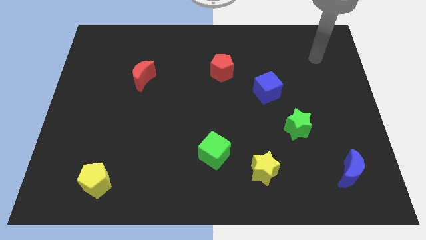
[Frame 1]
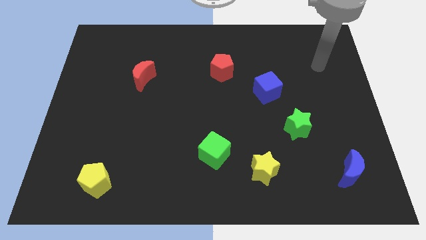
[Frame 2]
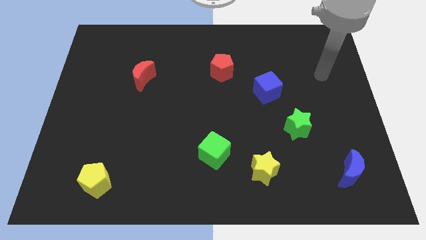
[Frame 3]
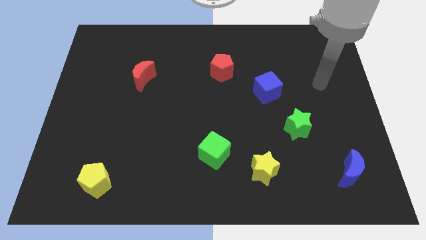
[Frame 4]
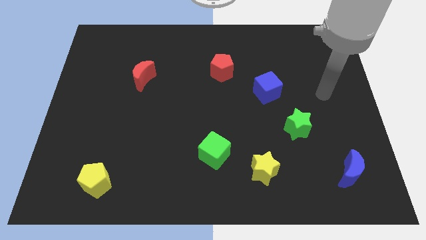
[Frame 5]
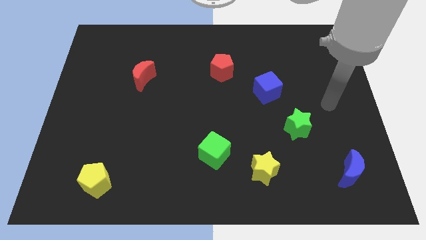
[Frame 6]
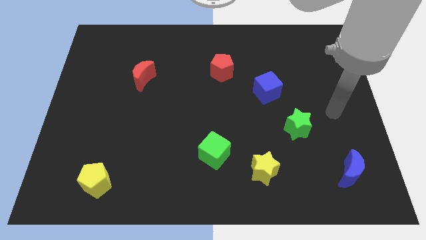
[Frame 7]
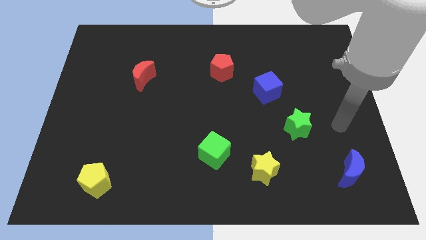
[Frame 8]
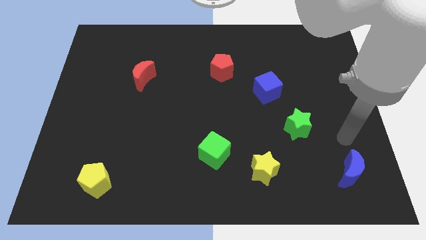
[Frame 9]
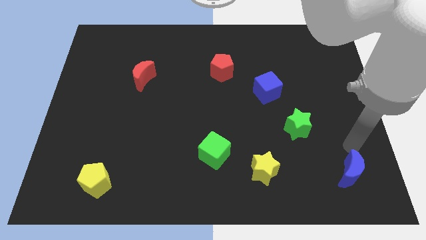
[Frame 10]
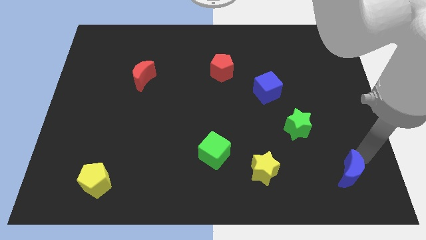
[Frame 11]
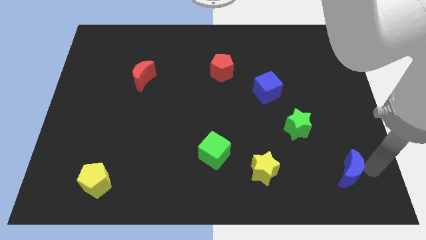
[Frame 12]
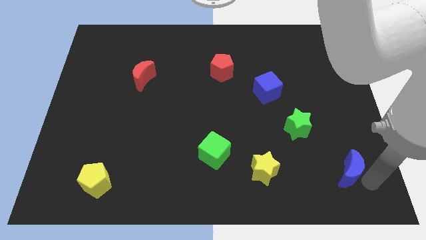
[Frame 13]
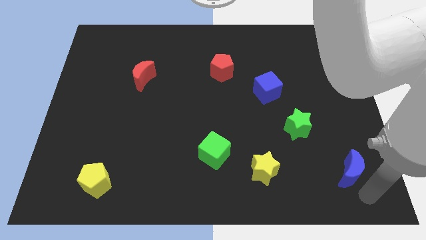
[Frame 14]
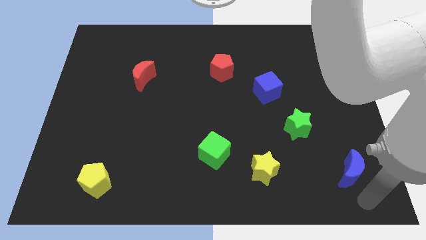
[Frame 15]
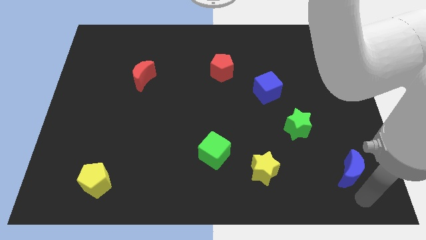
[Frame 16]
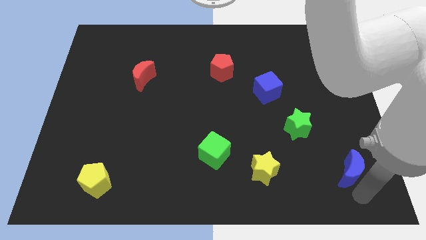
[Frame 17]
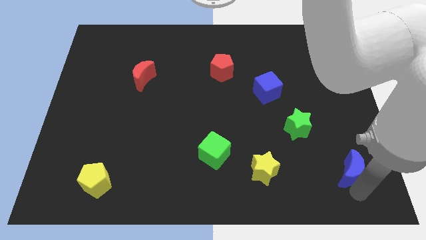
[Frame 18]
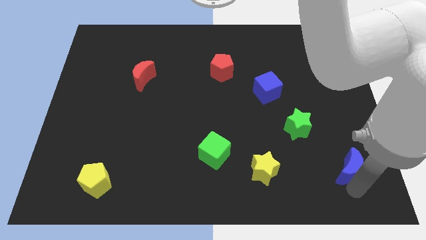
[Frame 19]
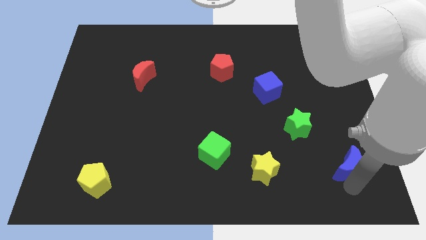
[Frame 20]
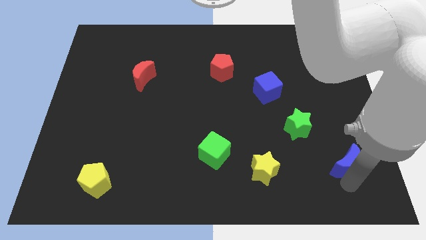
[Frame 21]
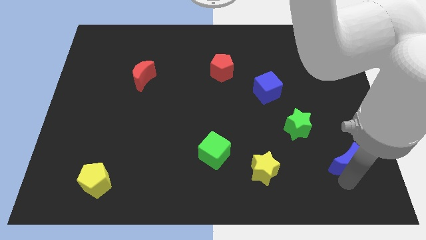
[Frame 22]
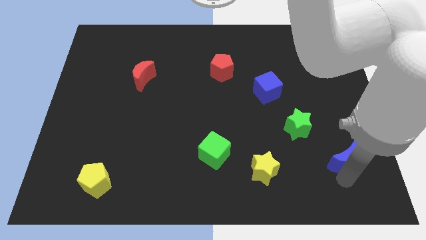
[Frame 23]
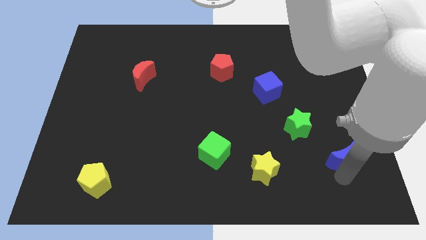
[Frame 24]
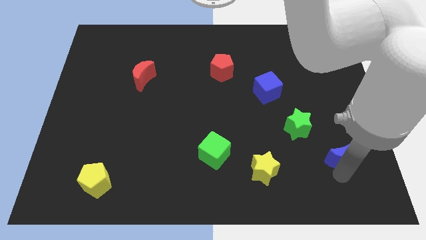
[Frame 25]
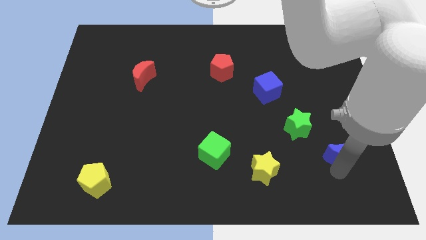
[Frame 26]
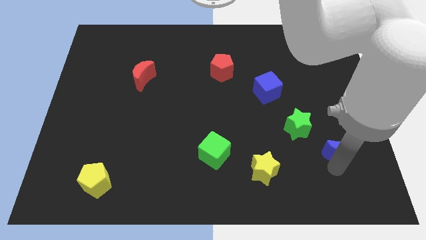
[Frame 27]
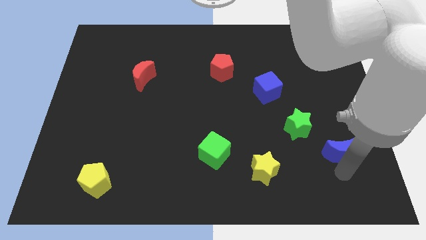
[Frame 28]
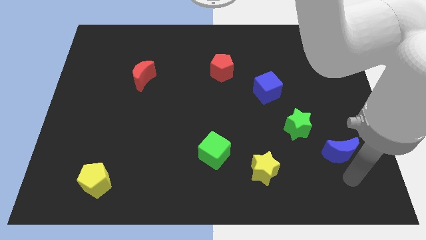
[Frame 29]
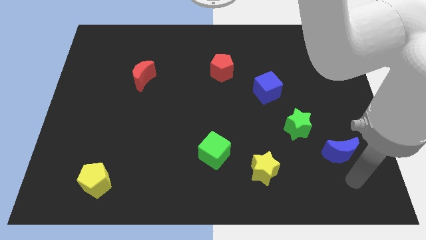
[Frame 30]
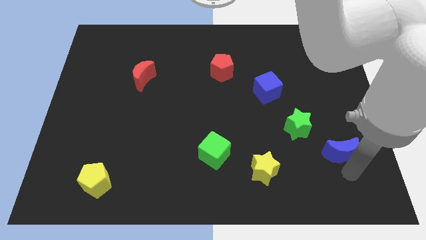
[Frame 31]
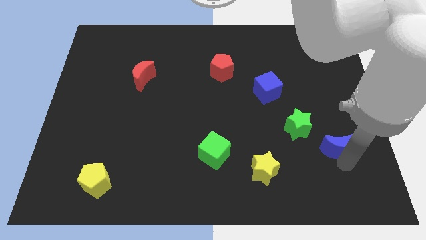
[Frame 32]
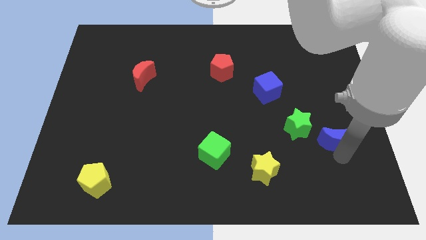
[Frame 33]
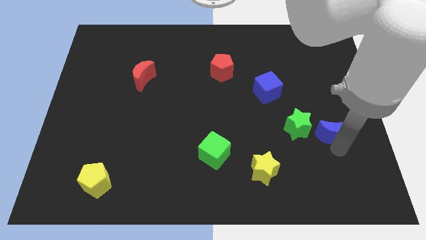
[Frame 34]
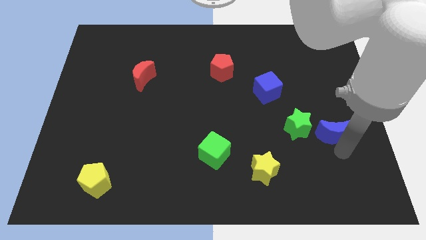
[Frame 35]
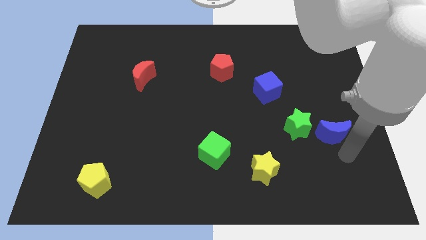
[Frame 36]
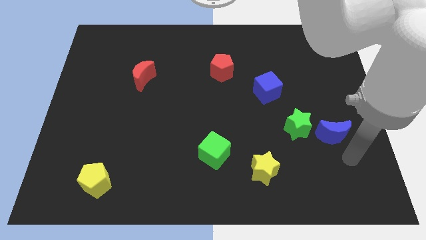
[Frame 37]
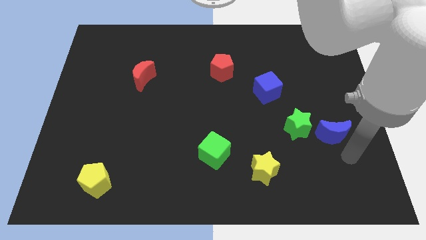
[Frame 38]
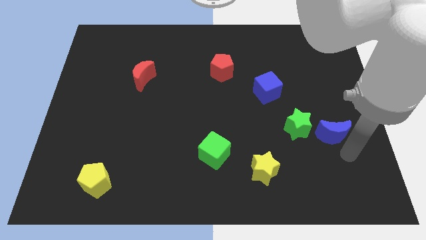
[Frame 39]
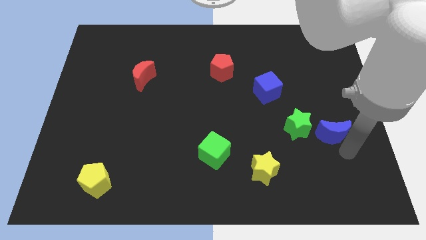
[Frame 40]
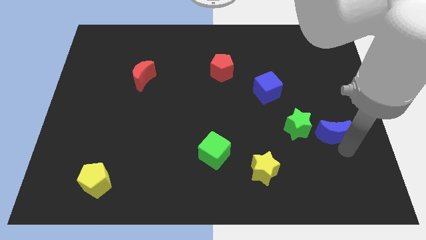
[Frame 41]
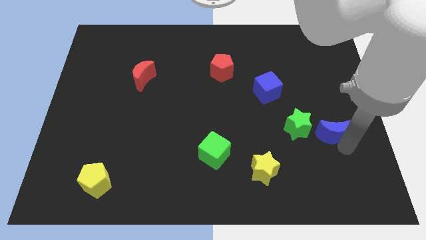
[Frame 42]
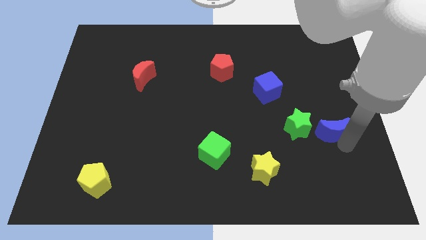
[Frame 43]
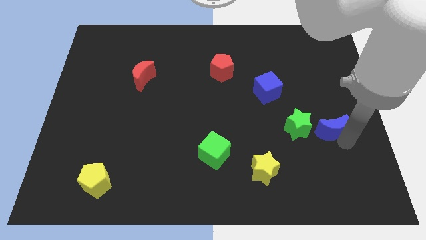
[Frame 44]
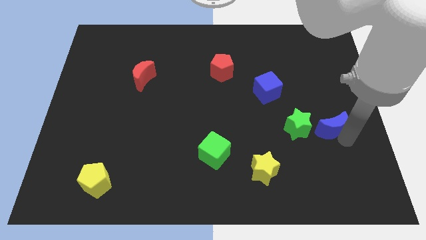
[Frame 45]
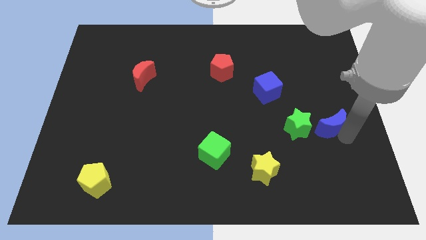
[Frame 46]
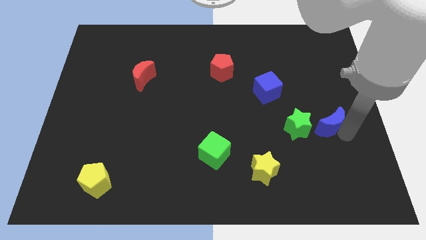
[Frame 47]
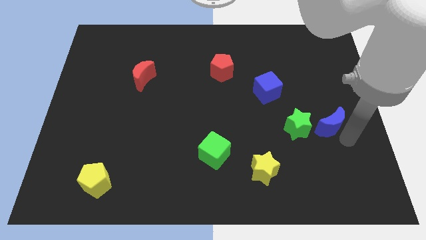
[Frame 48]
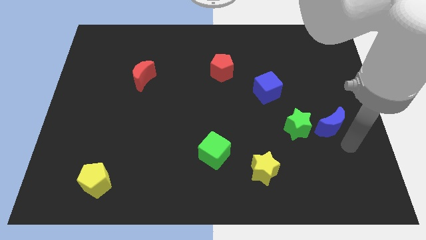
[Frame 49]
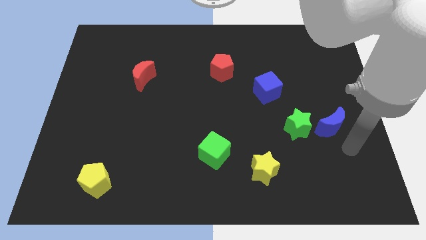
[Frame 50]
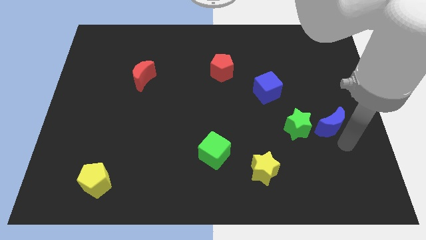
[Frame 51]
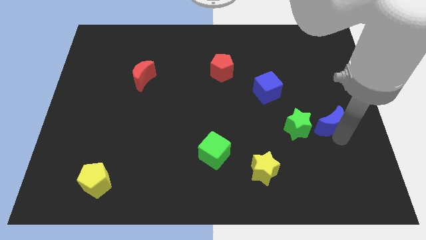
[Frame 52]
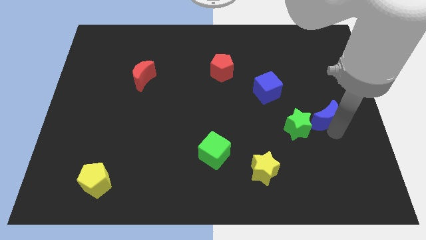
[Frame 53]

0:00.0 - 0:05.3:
slide the blue moon diagonally up and to the right of the green star

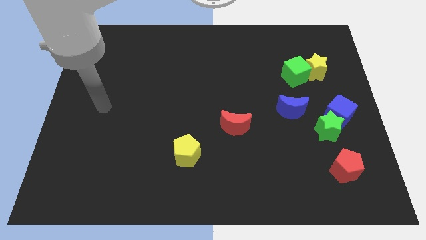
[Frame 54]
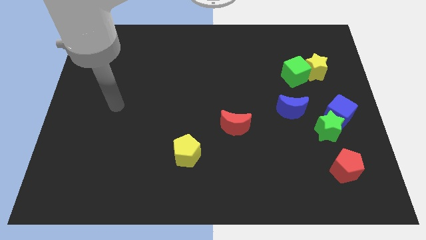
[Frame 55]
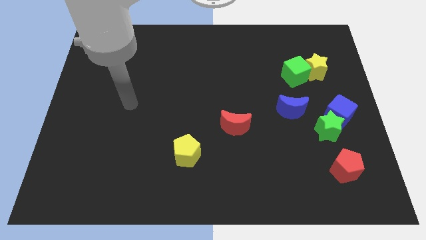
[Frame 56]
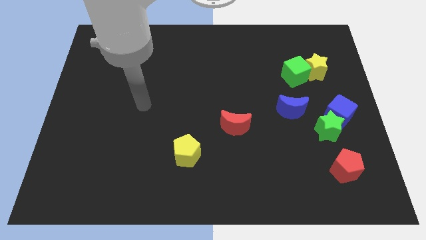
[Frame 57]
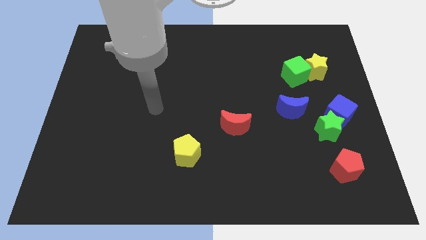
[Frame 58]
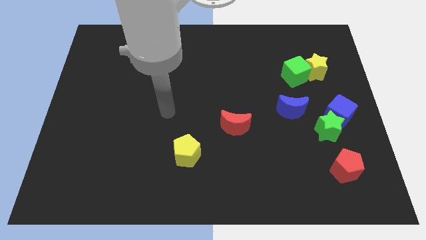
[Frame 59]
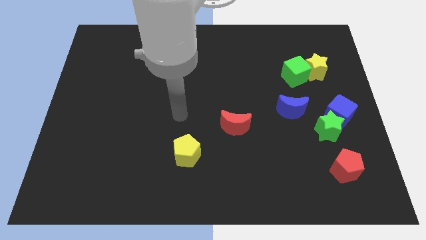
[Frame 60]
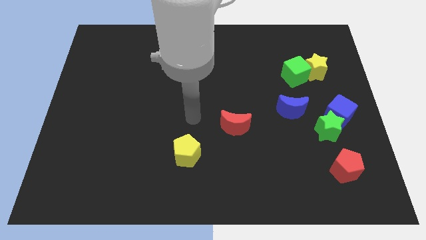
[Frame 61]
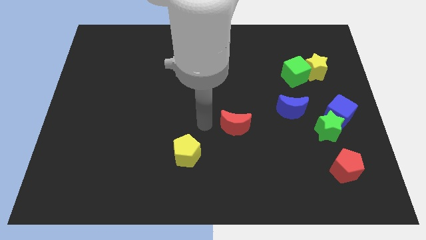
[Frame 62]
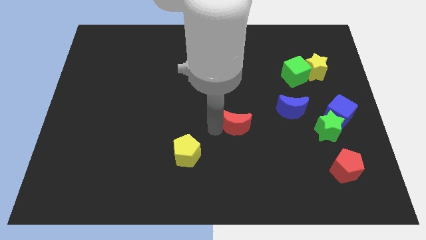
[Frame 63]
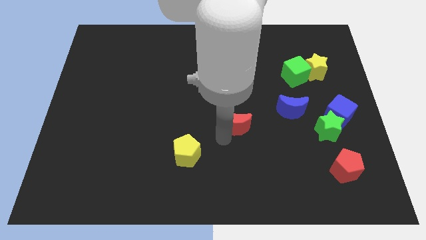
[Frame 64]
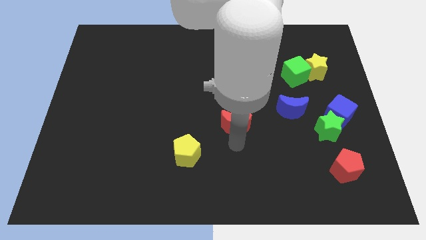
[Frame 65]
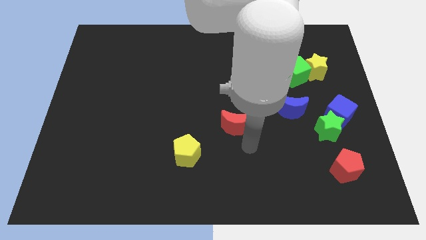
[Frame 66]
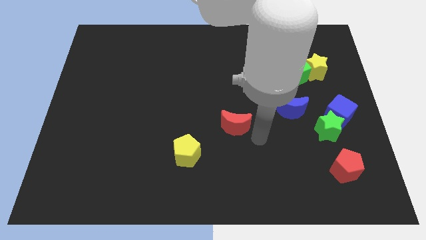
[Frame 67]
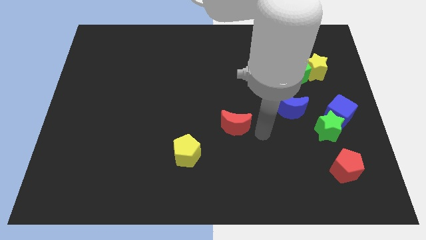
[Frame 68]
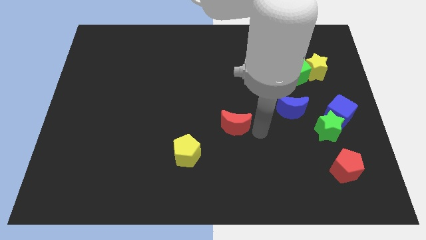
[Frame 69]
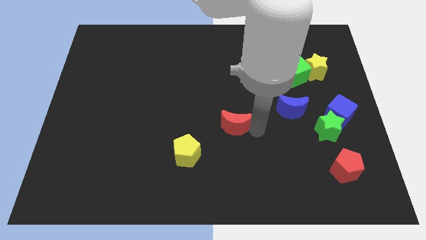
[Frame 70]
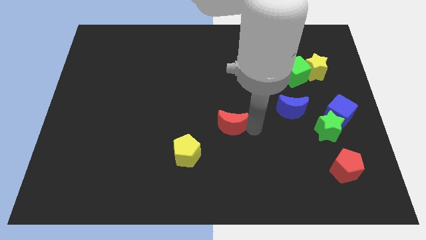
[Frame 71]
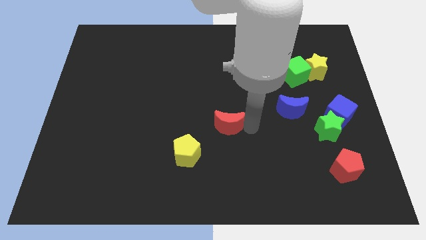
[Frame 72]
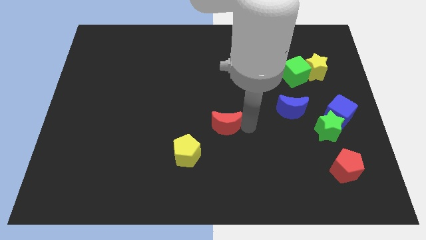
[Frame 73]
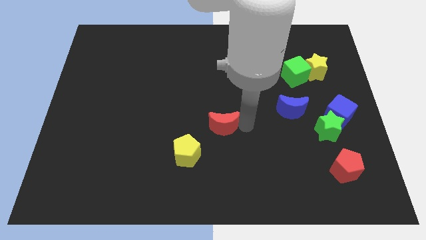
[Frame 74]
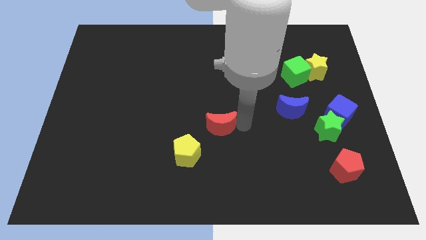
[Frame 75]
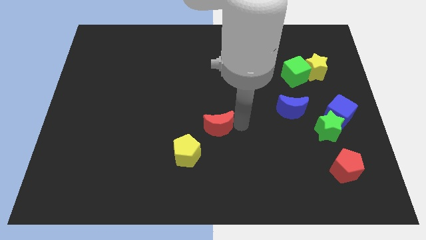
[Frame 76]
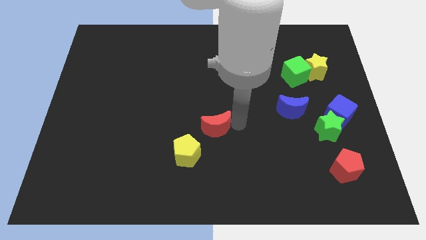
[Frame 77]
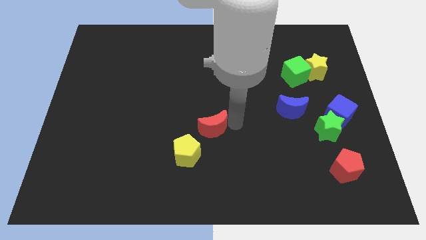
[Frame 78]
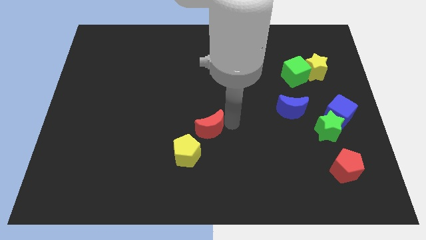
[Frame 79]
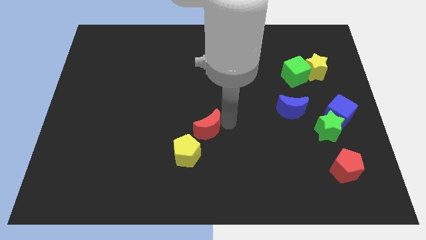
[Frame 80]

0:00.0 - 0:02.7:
slide the red moon to the top of the yellow pentagon
